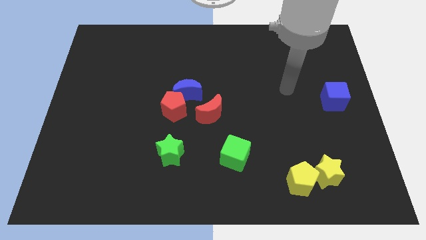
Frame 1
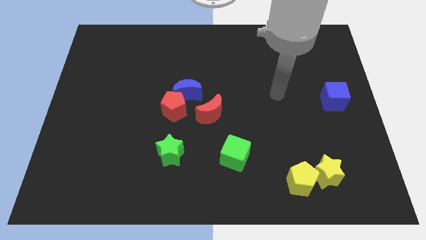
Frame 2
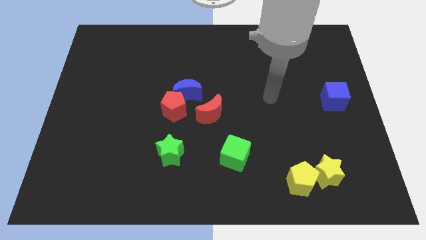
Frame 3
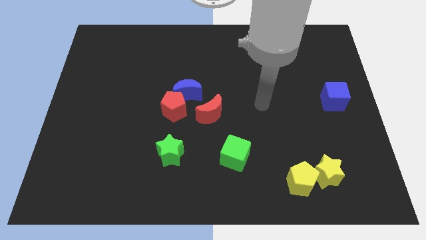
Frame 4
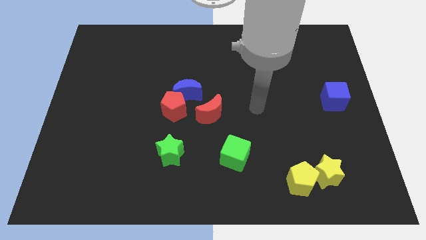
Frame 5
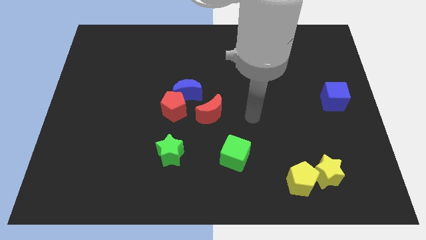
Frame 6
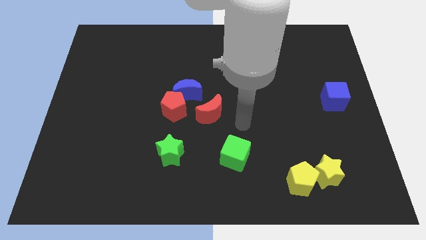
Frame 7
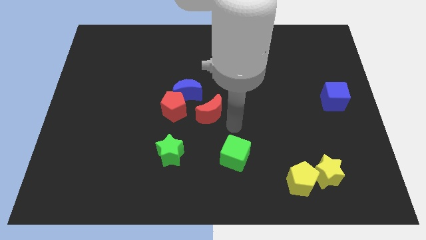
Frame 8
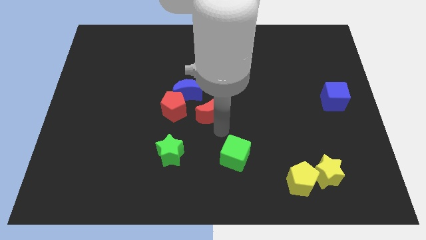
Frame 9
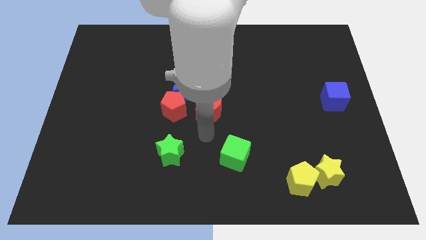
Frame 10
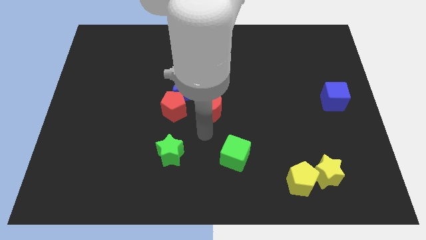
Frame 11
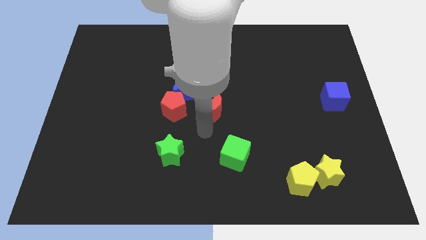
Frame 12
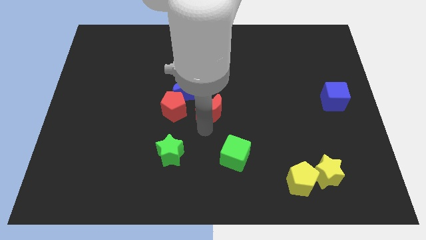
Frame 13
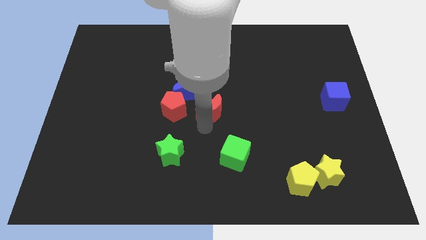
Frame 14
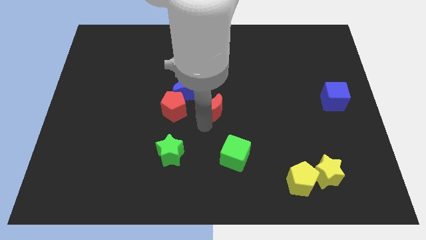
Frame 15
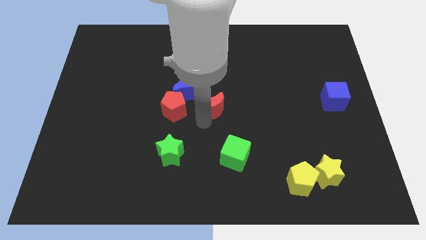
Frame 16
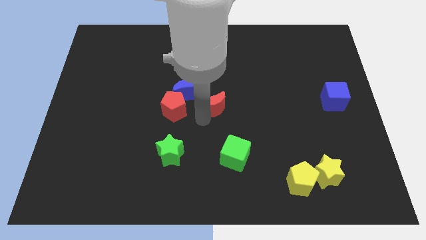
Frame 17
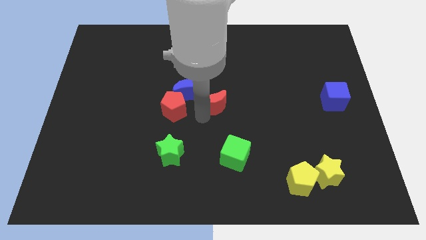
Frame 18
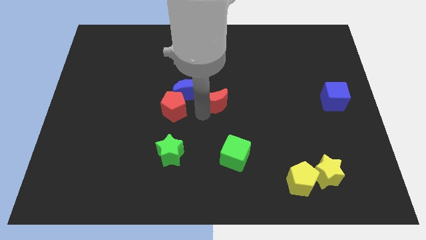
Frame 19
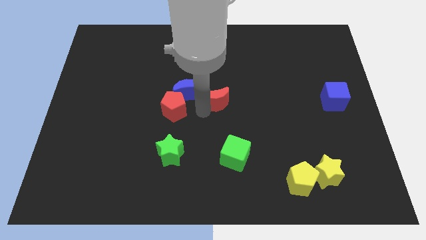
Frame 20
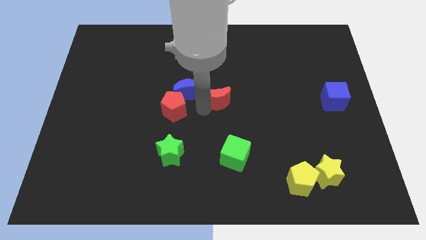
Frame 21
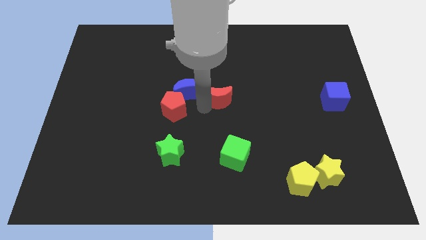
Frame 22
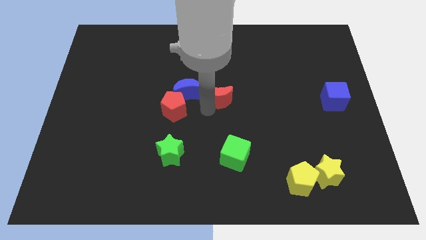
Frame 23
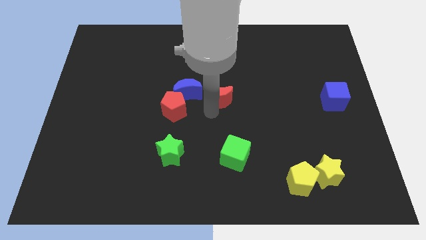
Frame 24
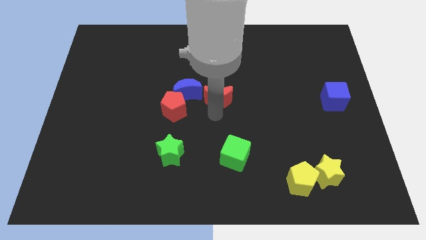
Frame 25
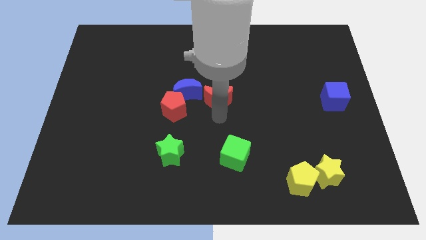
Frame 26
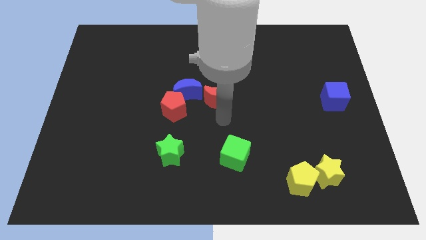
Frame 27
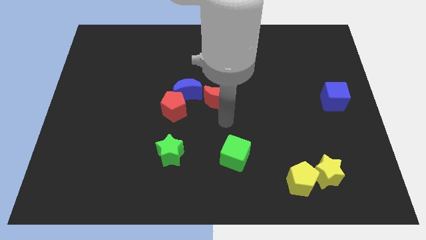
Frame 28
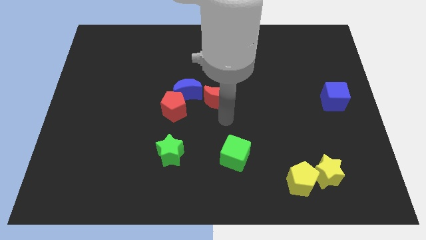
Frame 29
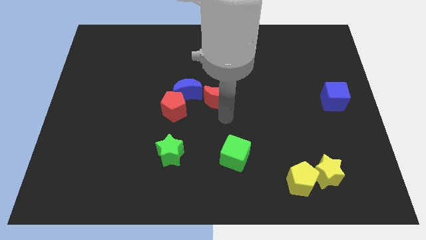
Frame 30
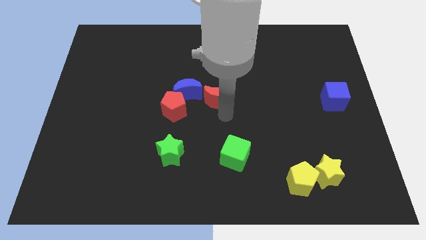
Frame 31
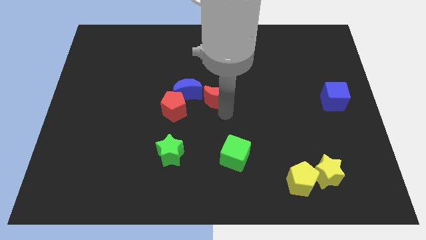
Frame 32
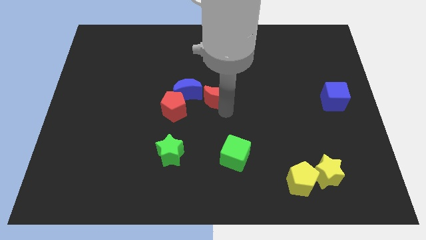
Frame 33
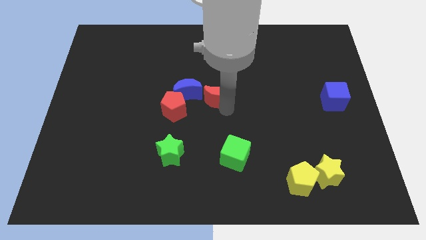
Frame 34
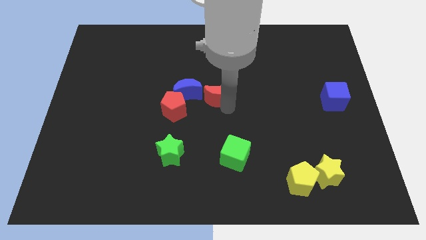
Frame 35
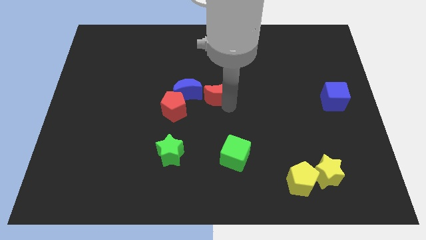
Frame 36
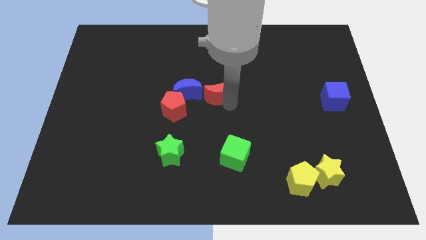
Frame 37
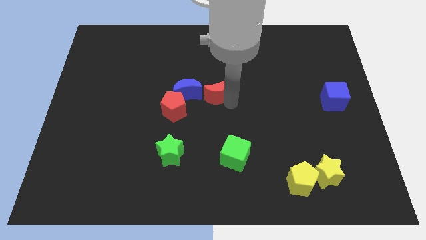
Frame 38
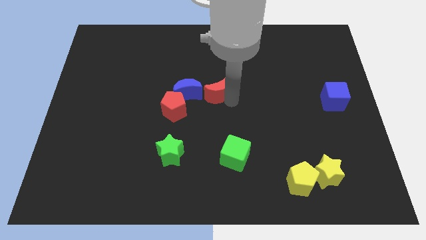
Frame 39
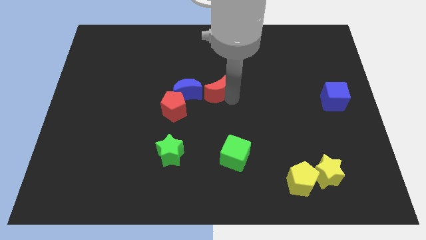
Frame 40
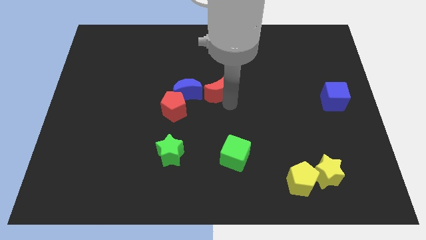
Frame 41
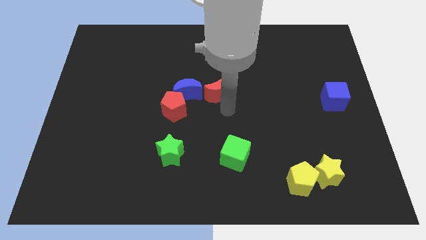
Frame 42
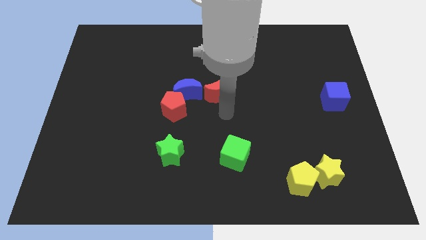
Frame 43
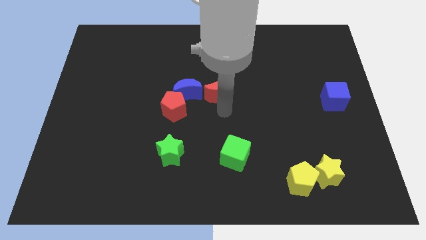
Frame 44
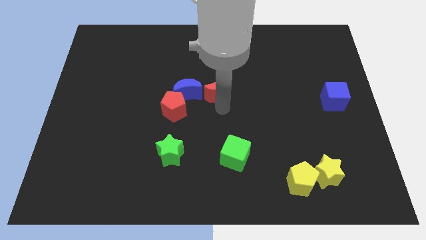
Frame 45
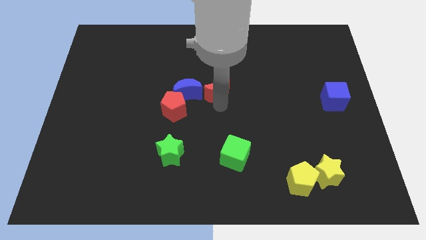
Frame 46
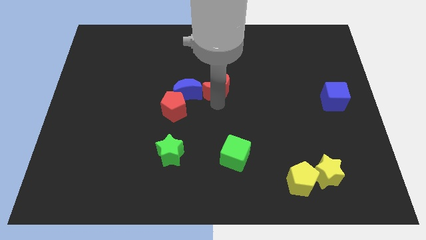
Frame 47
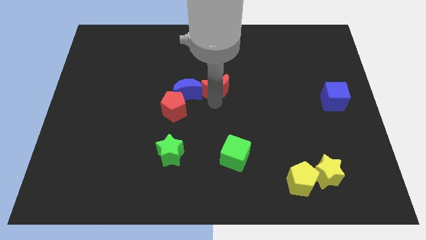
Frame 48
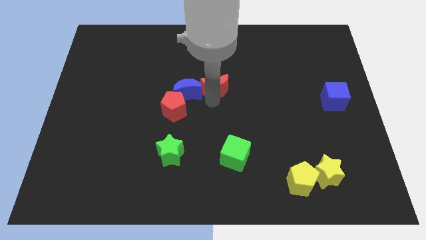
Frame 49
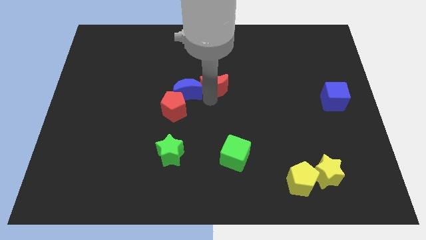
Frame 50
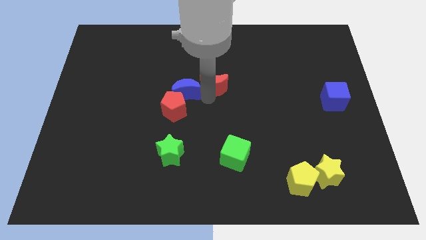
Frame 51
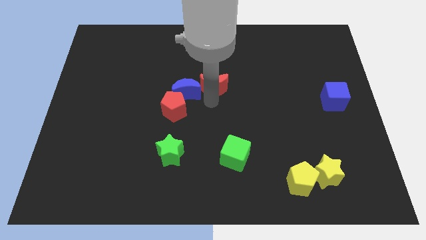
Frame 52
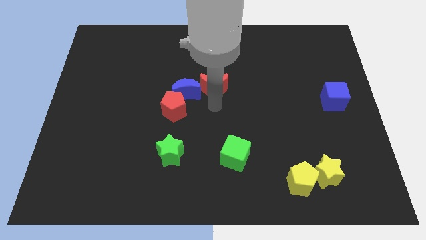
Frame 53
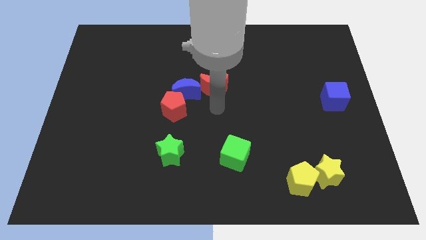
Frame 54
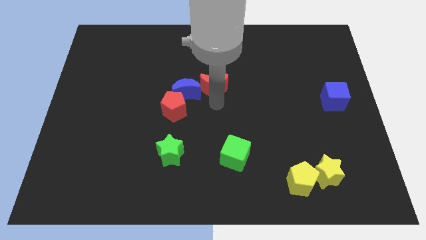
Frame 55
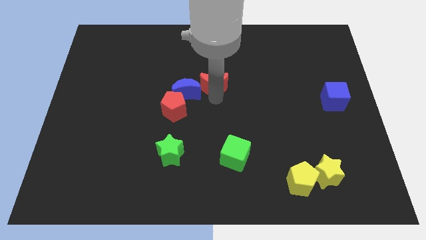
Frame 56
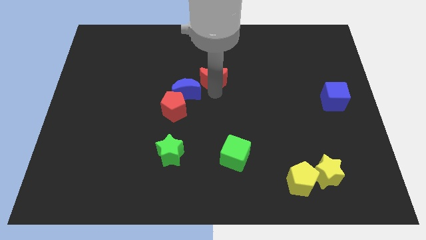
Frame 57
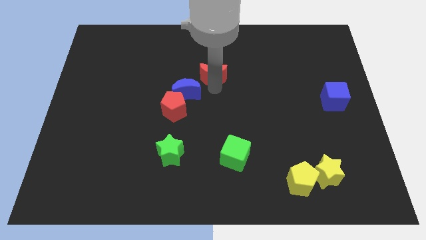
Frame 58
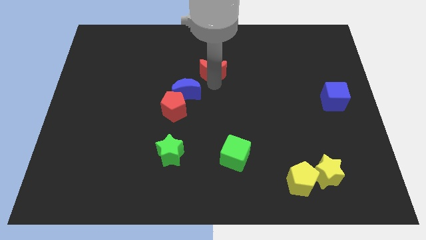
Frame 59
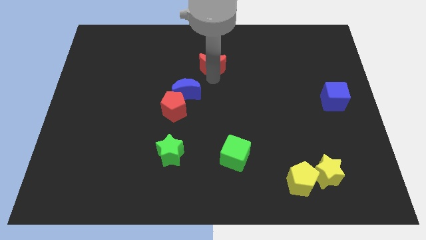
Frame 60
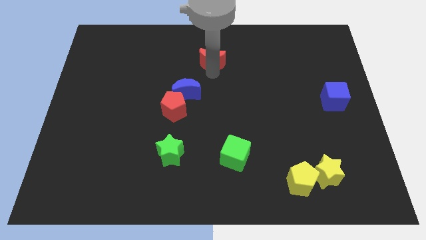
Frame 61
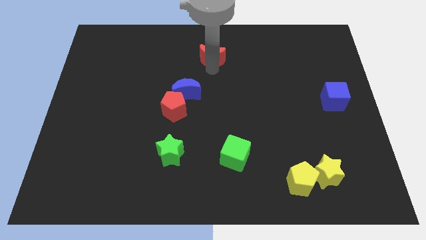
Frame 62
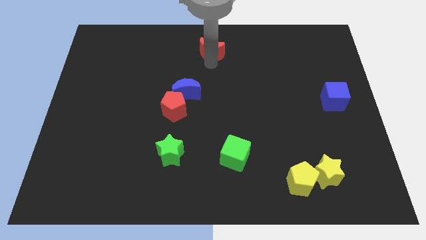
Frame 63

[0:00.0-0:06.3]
push the red moon to the top

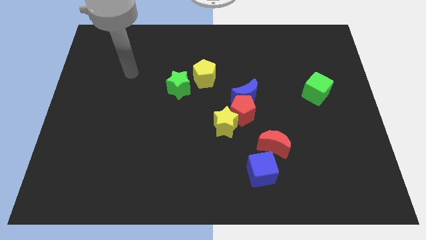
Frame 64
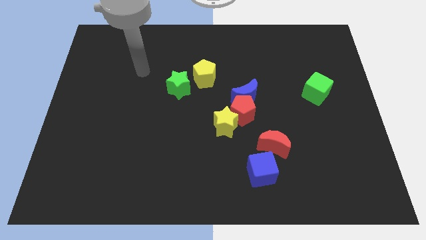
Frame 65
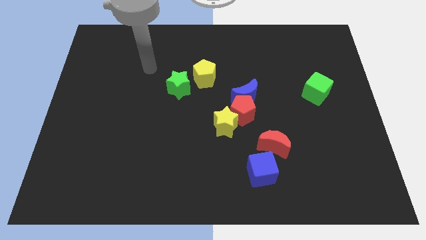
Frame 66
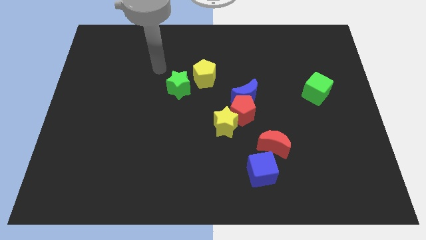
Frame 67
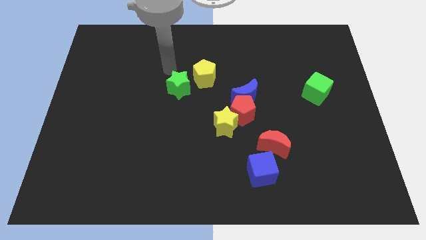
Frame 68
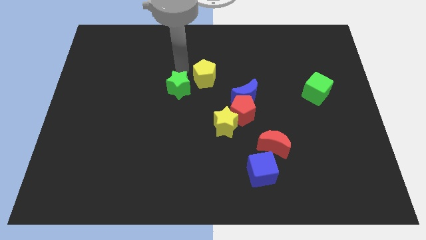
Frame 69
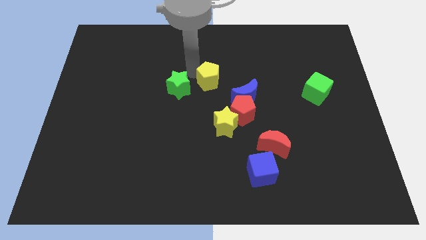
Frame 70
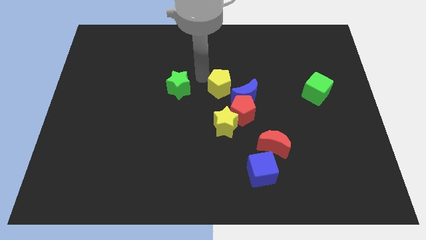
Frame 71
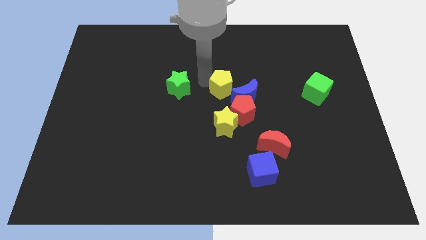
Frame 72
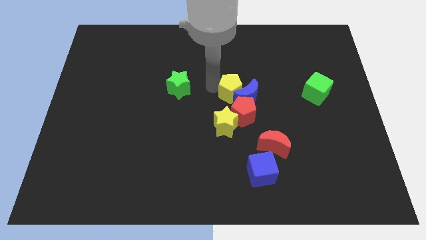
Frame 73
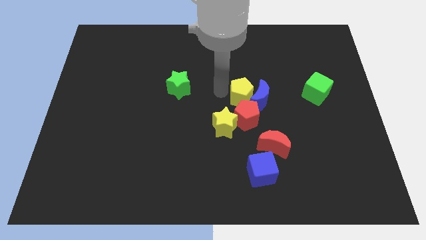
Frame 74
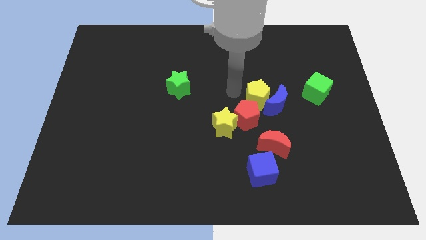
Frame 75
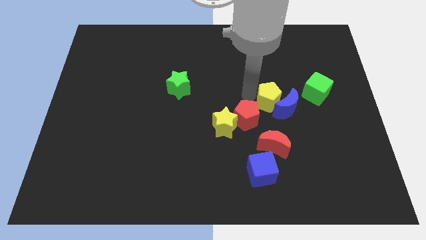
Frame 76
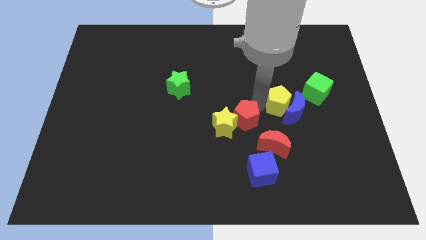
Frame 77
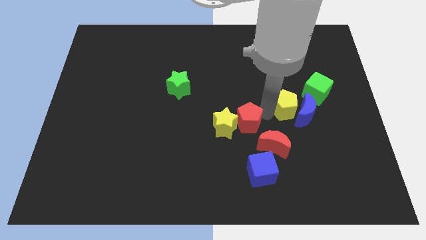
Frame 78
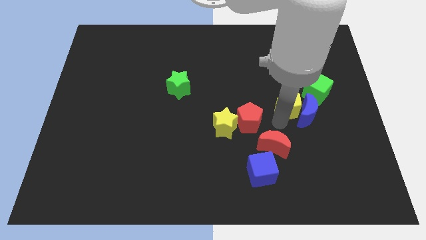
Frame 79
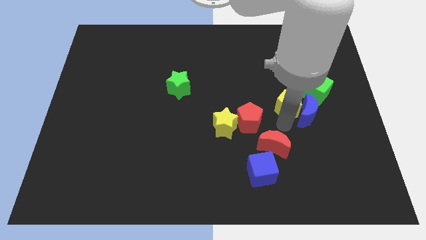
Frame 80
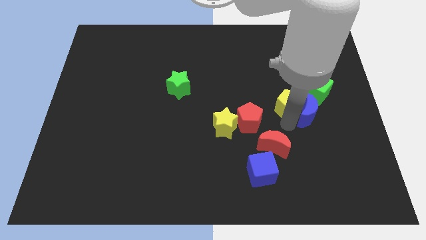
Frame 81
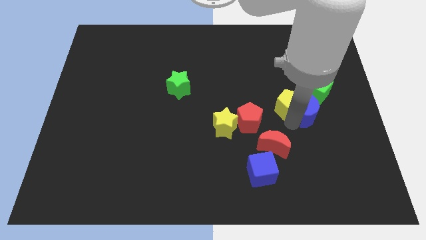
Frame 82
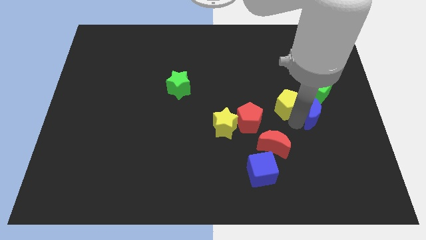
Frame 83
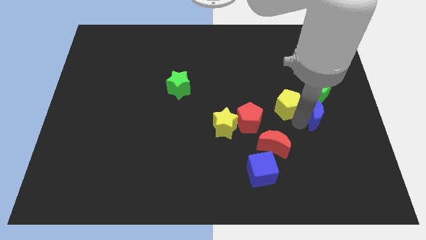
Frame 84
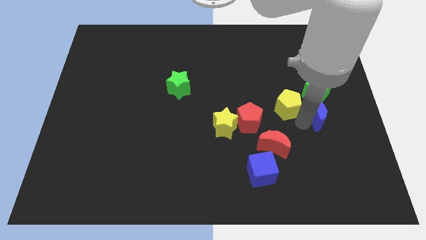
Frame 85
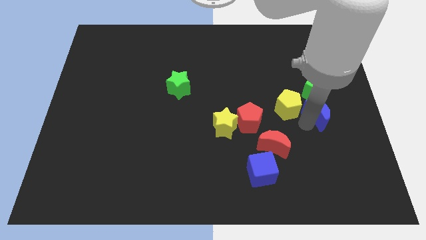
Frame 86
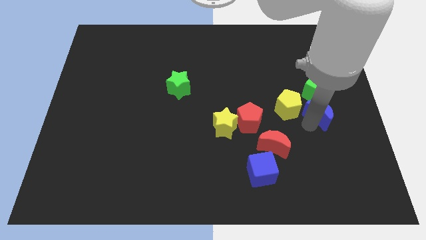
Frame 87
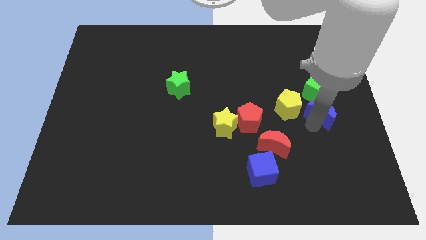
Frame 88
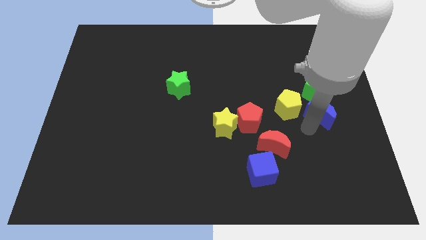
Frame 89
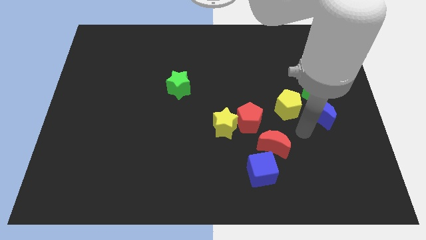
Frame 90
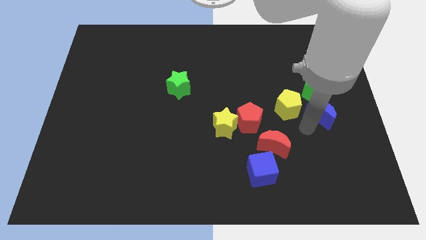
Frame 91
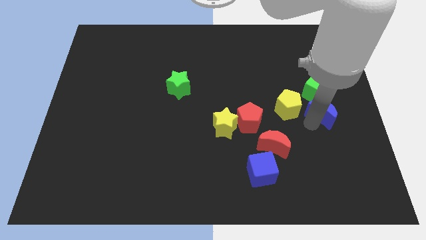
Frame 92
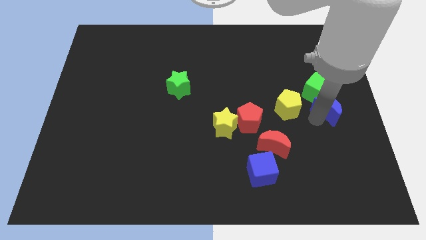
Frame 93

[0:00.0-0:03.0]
push the blue moon to the right side of the board
